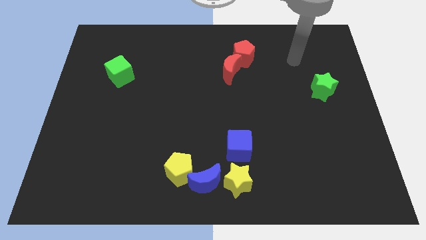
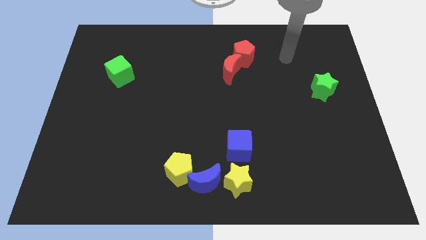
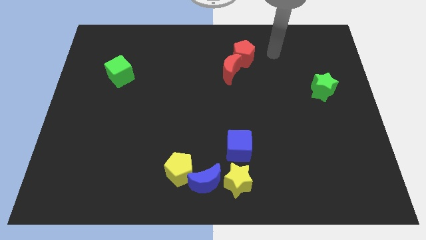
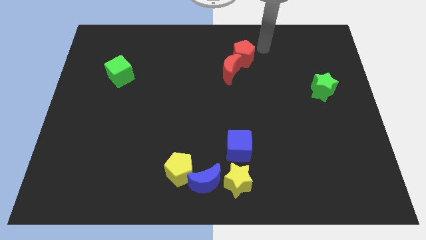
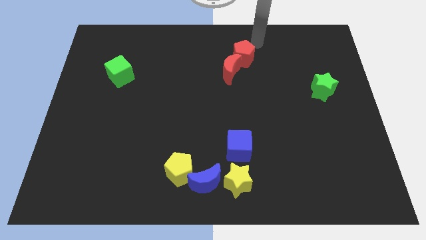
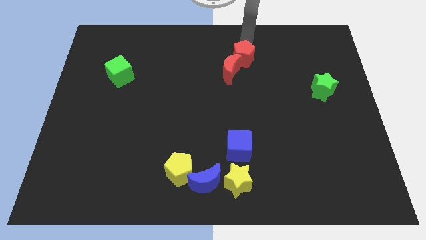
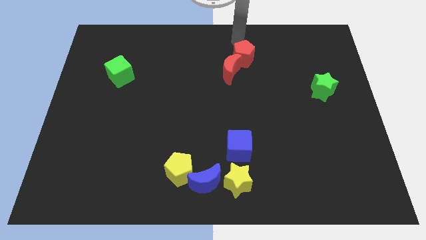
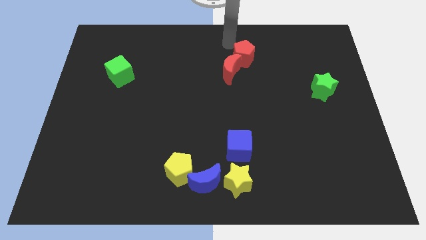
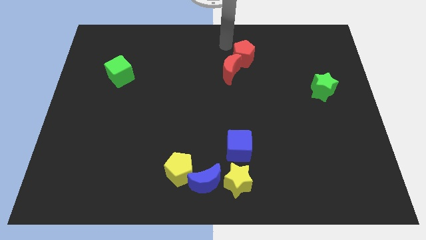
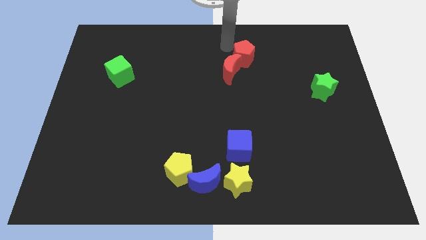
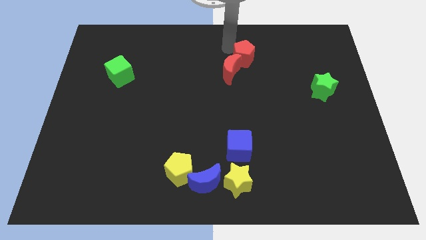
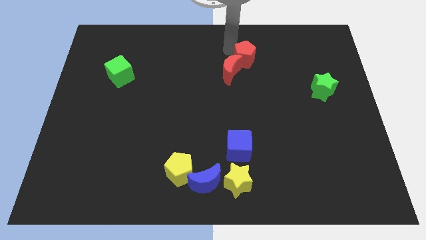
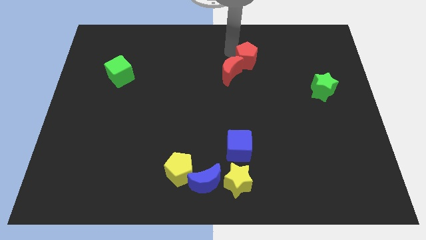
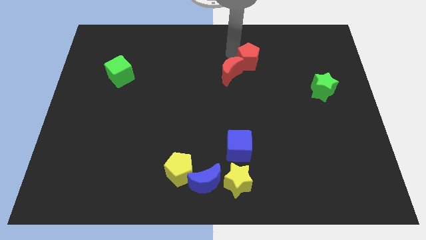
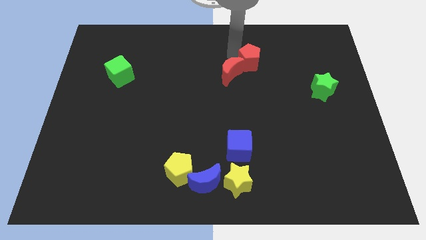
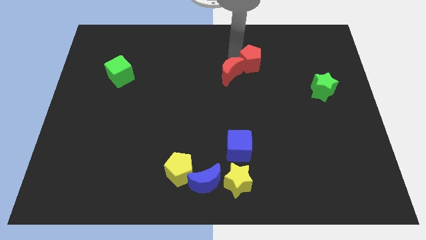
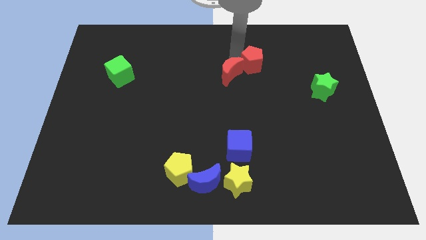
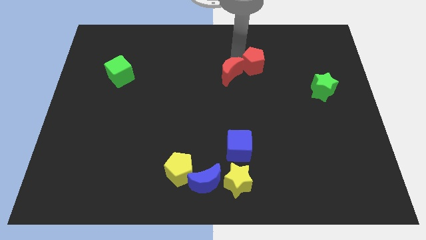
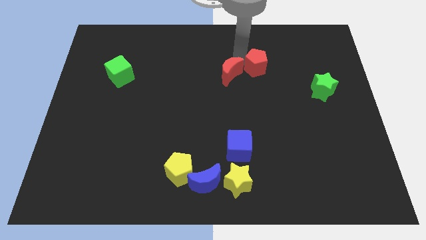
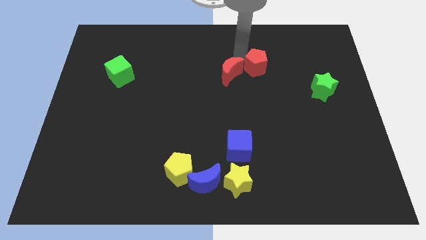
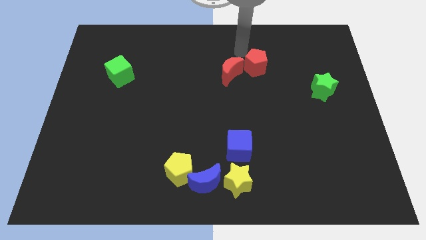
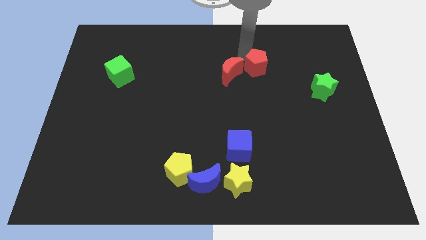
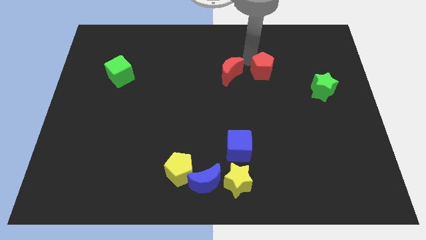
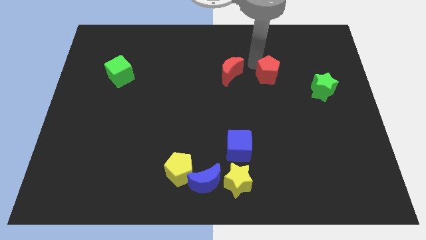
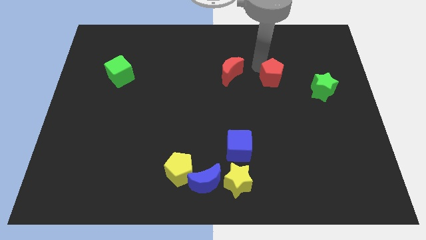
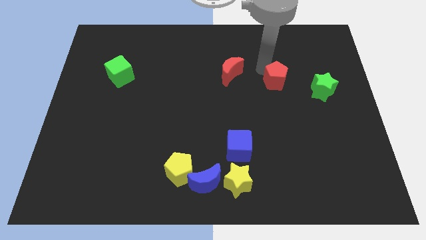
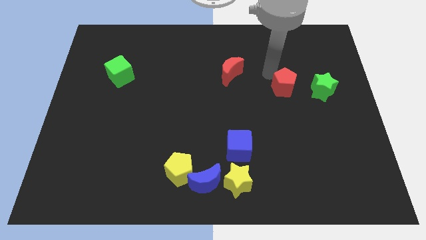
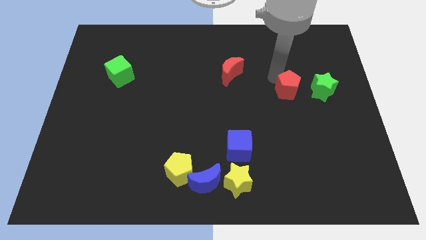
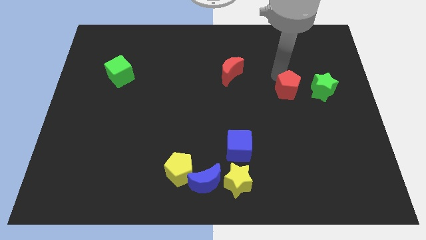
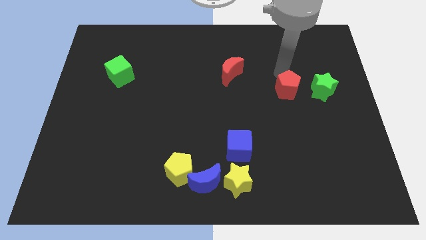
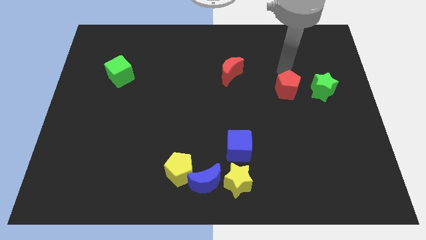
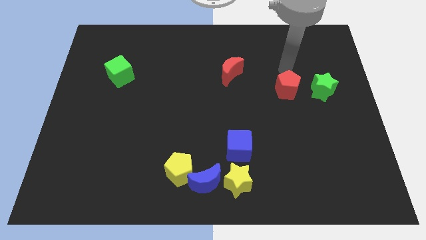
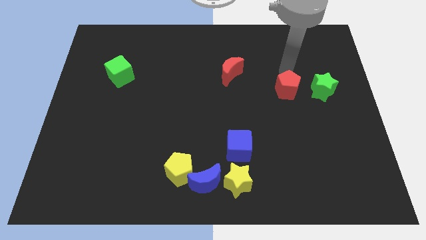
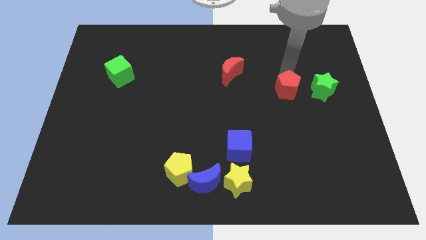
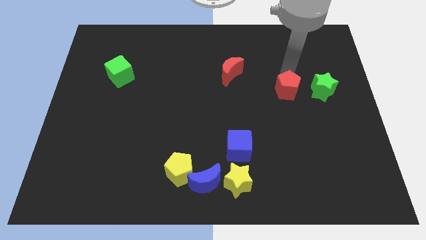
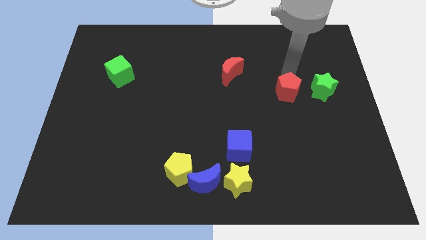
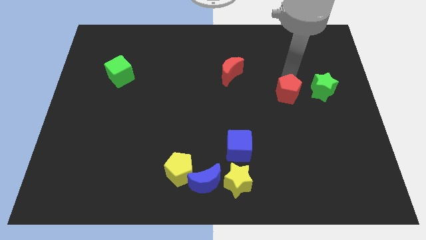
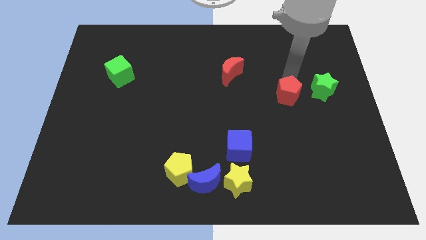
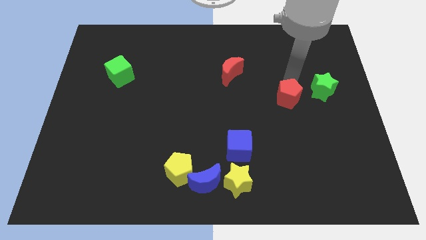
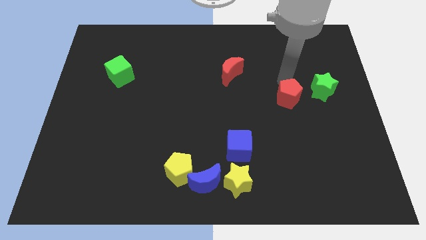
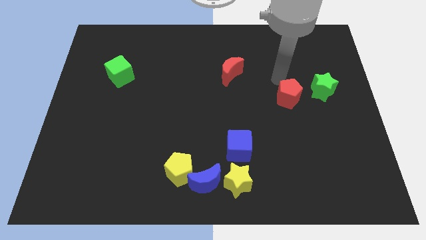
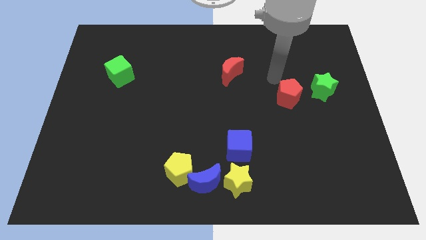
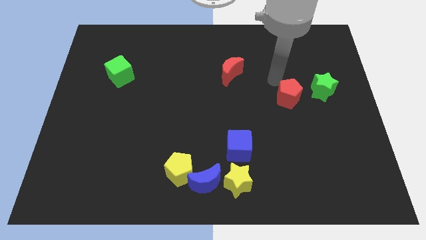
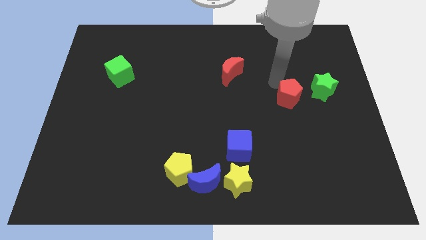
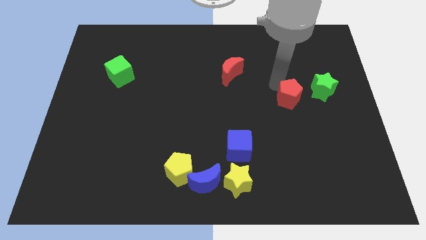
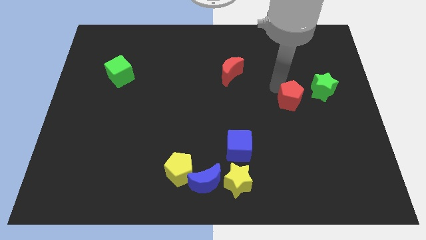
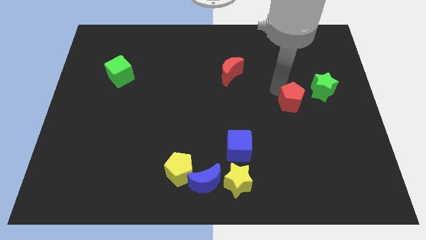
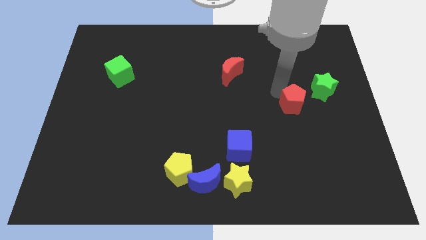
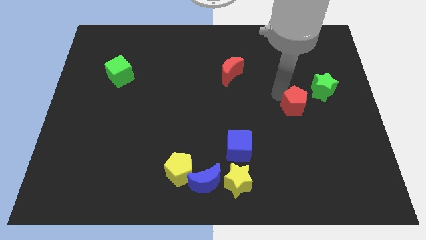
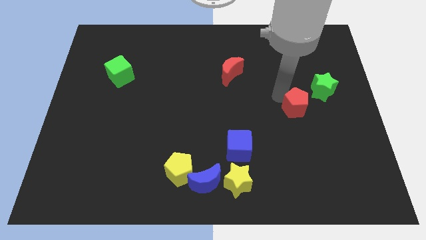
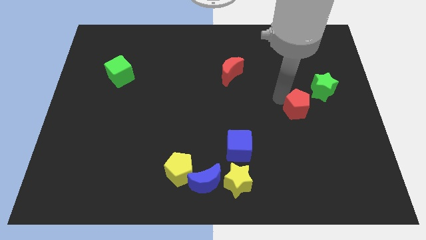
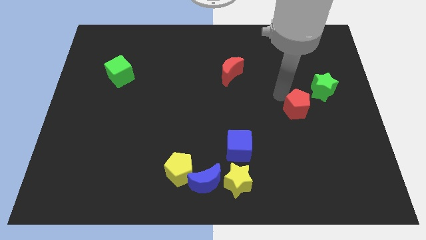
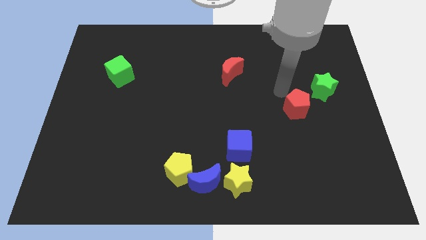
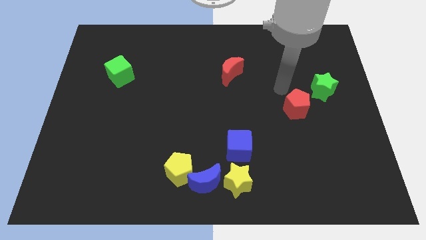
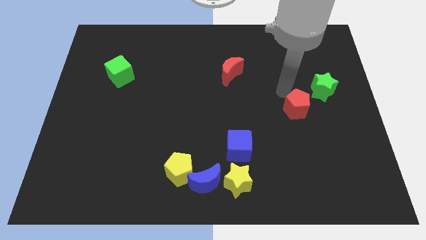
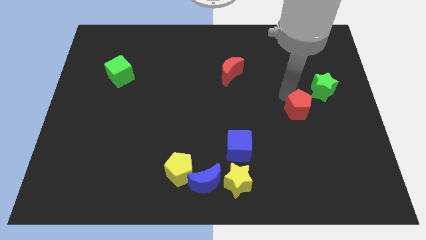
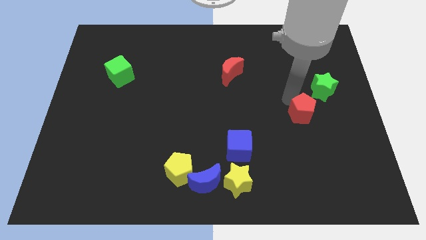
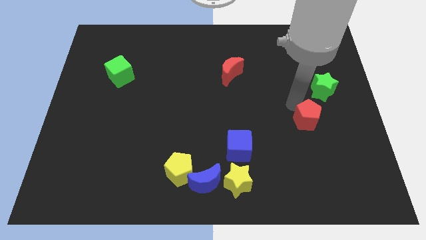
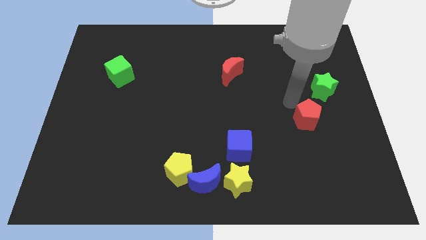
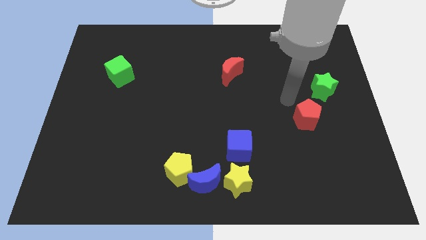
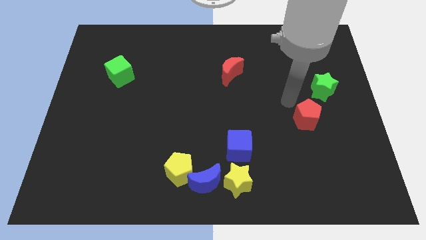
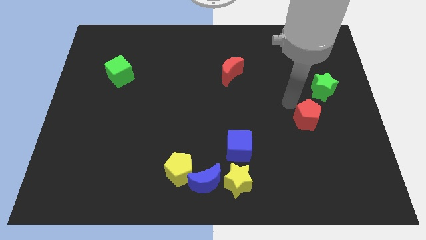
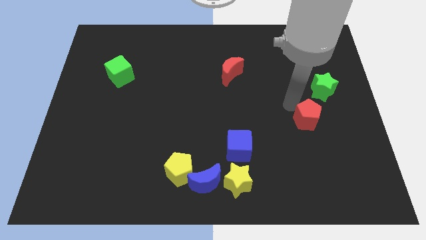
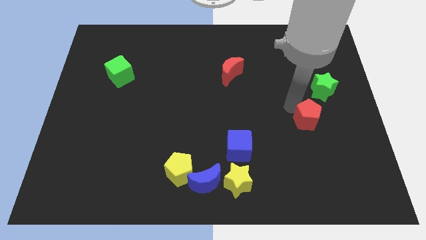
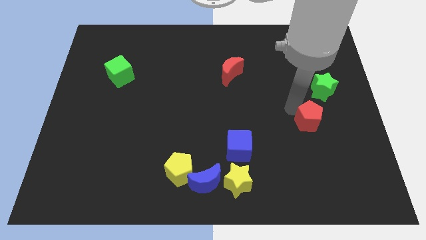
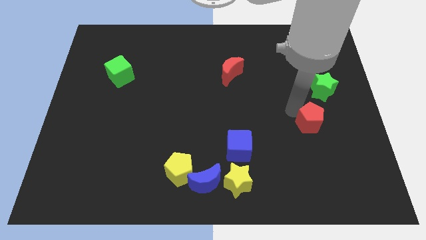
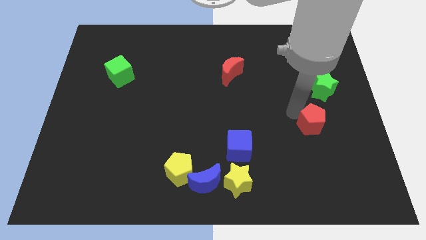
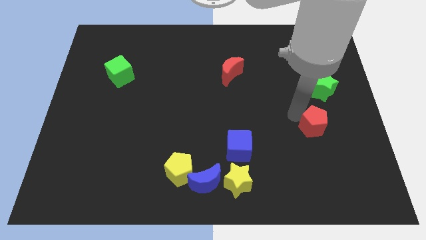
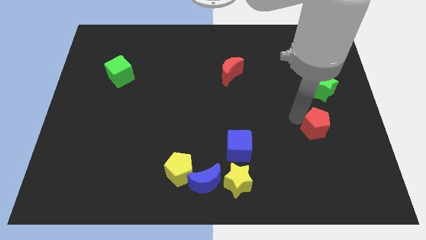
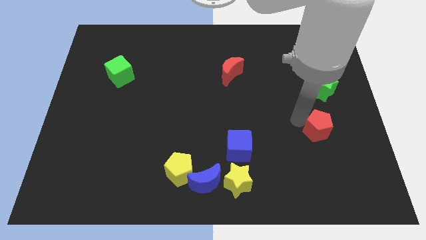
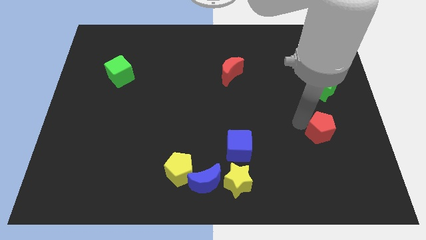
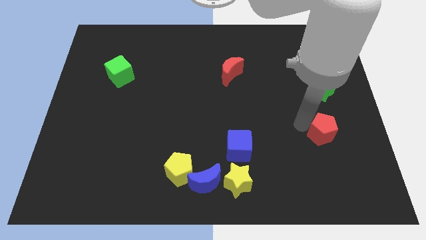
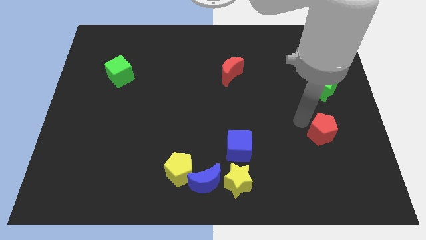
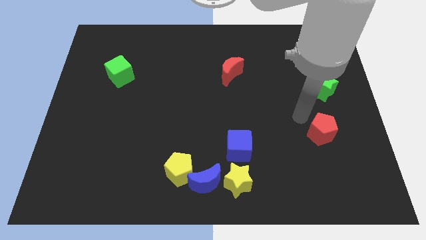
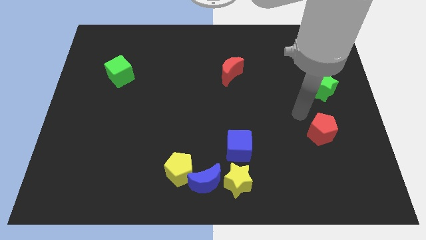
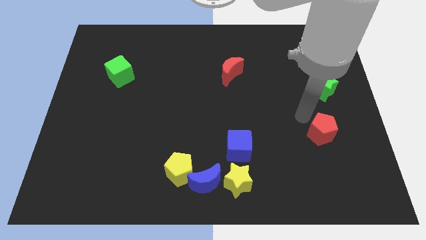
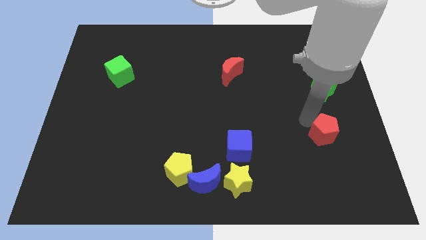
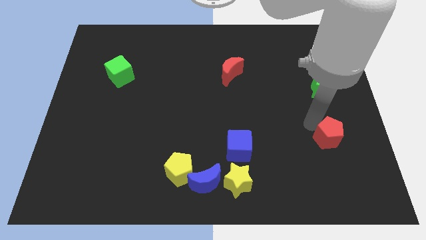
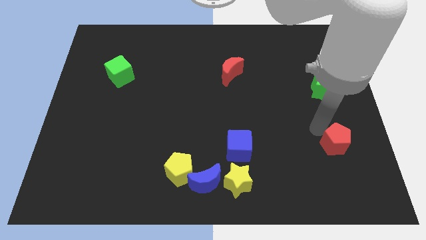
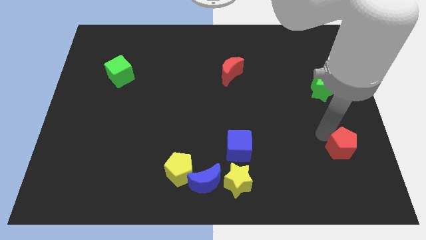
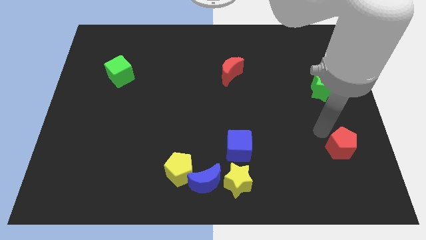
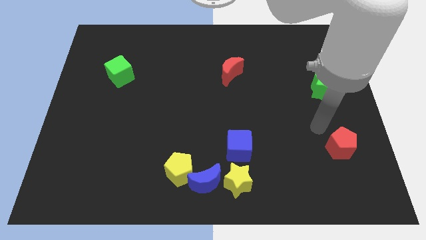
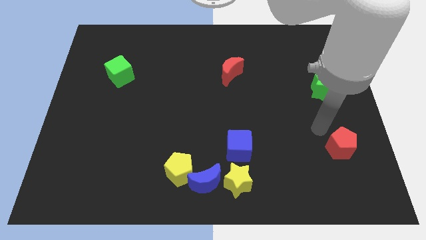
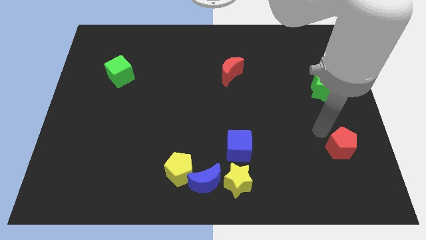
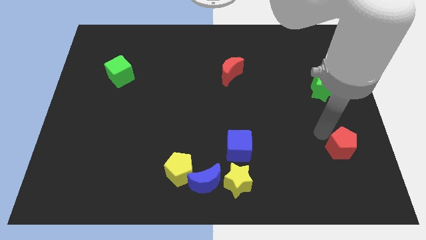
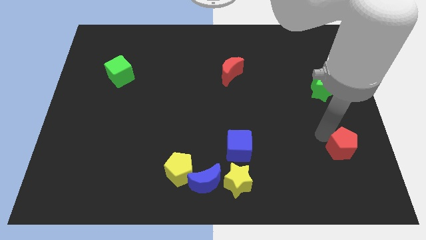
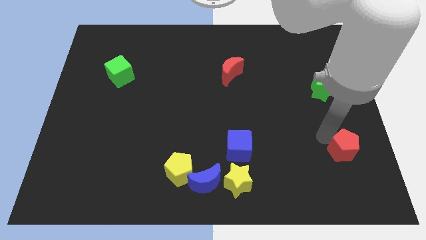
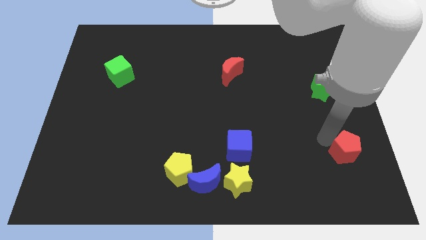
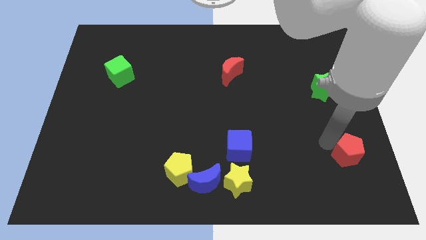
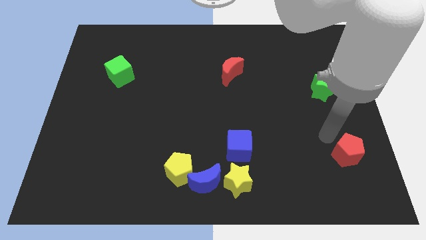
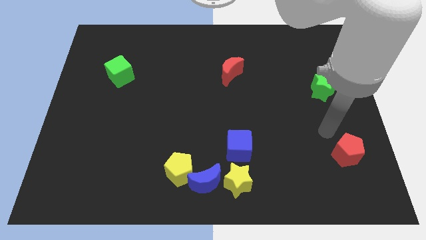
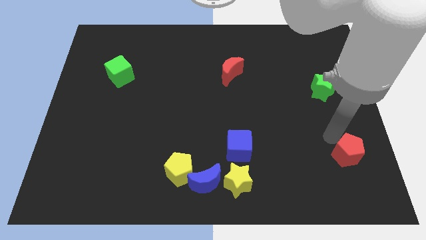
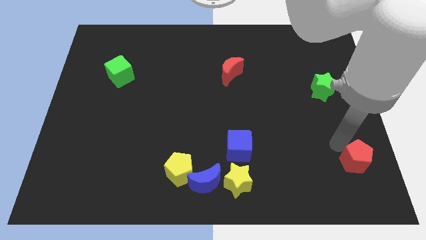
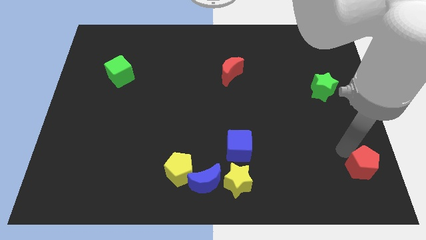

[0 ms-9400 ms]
move the red pentagon to the bottom right
